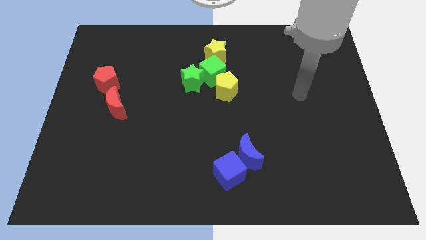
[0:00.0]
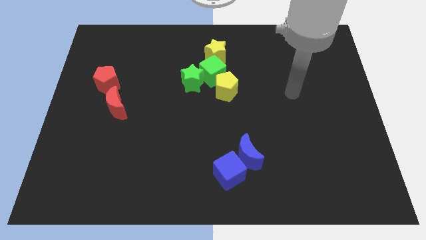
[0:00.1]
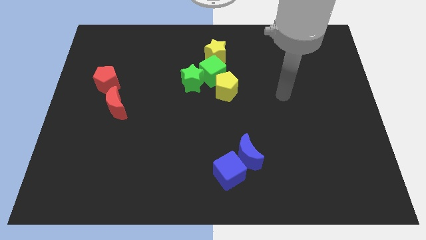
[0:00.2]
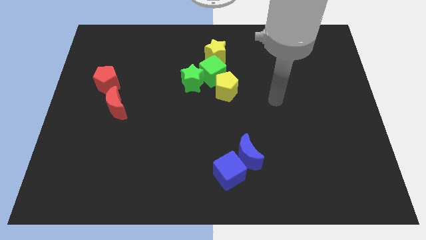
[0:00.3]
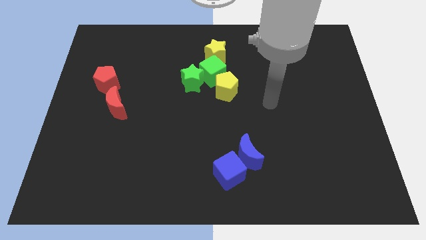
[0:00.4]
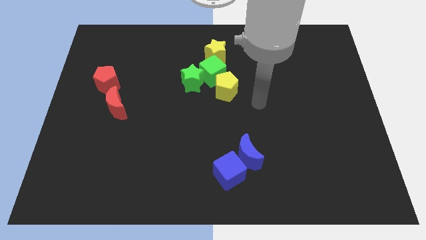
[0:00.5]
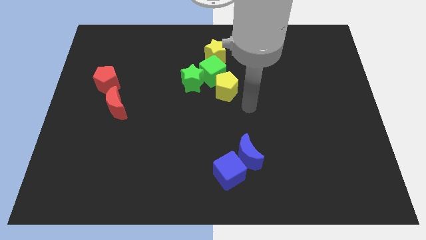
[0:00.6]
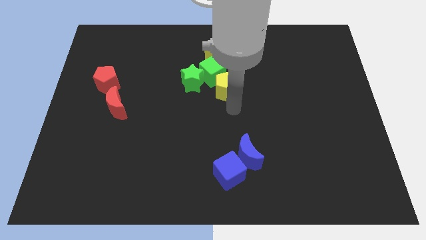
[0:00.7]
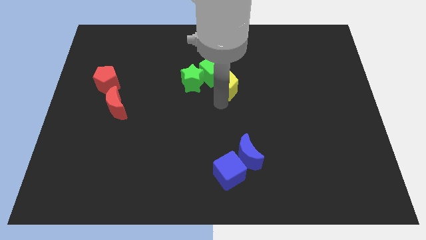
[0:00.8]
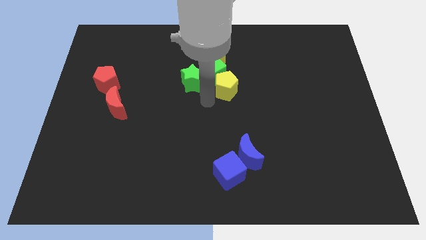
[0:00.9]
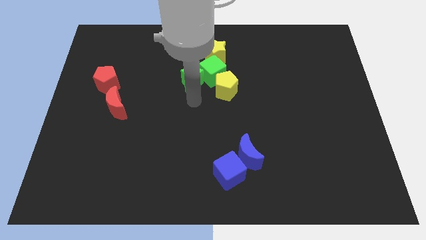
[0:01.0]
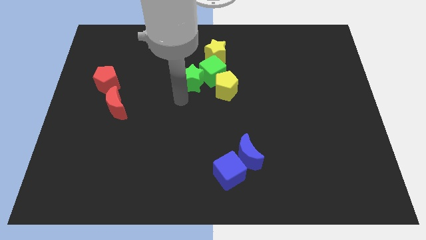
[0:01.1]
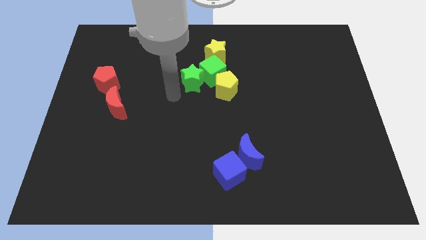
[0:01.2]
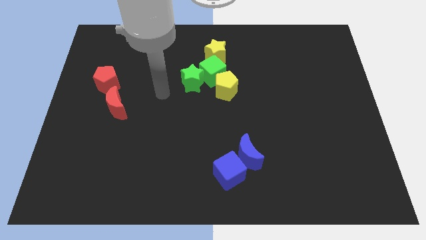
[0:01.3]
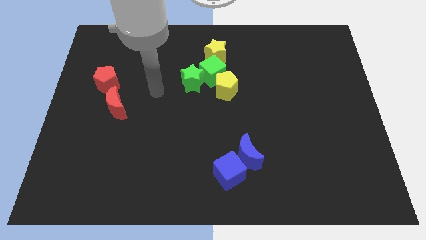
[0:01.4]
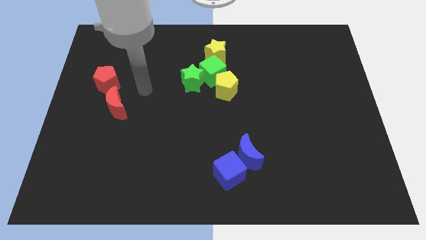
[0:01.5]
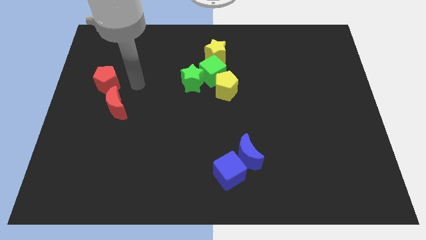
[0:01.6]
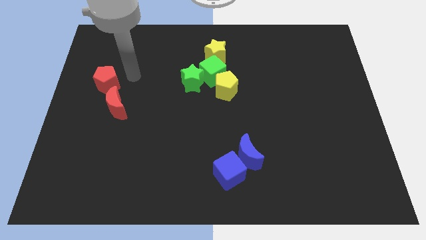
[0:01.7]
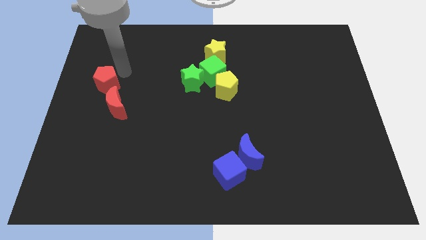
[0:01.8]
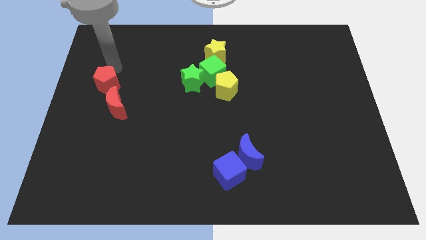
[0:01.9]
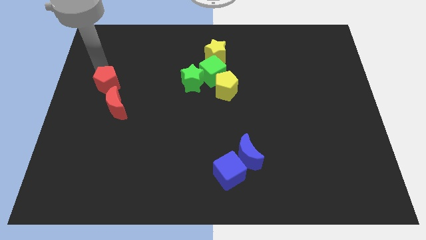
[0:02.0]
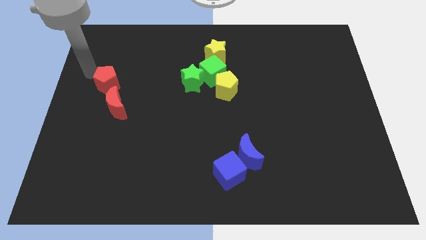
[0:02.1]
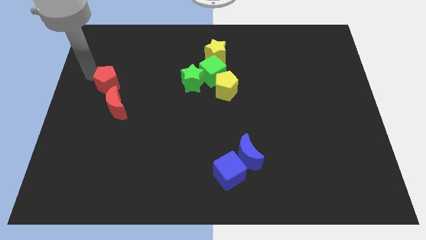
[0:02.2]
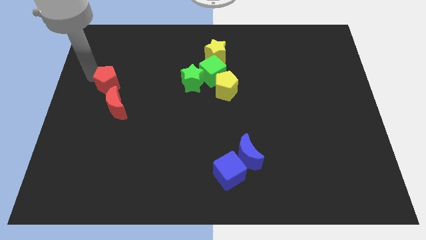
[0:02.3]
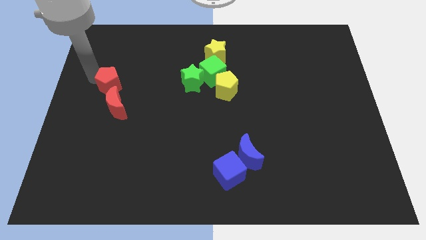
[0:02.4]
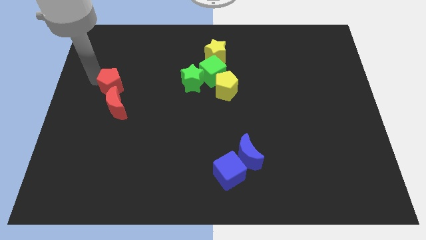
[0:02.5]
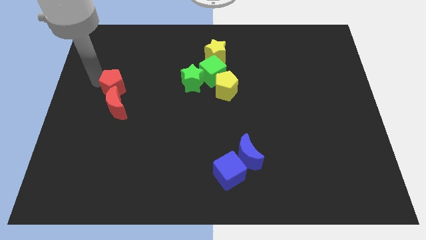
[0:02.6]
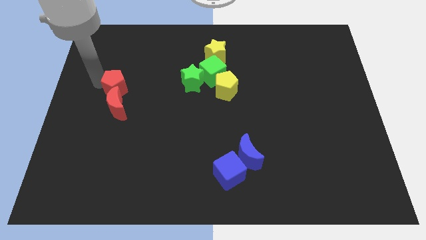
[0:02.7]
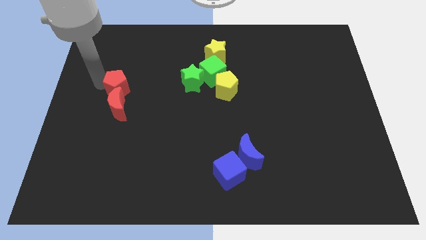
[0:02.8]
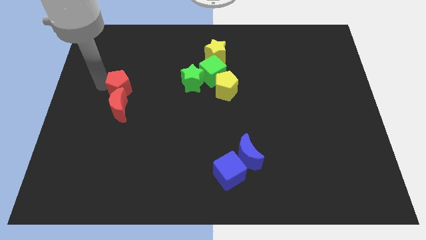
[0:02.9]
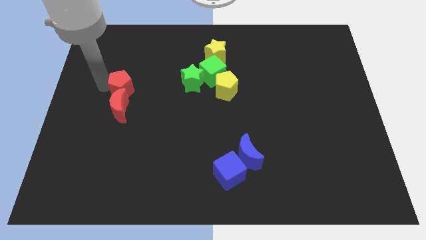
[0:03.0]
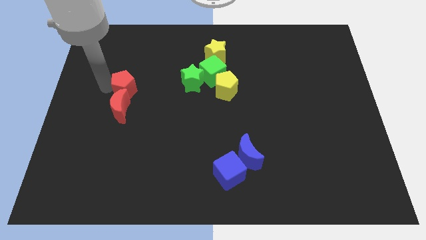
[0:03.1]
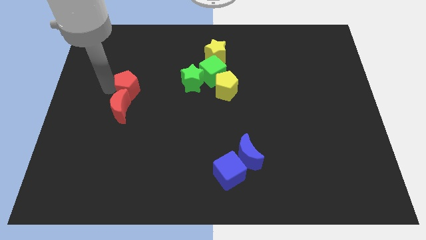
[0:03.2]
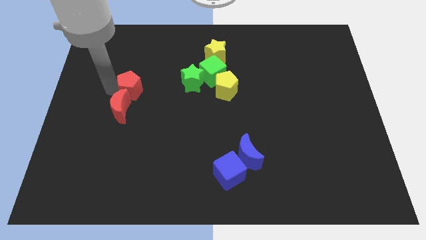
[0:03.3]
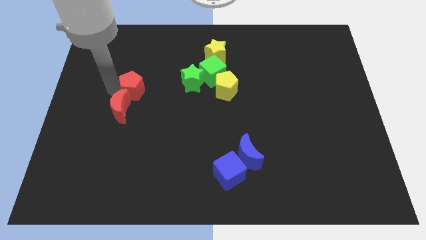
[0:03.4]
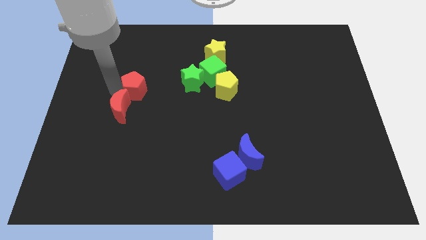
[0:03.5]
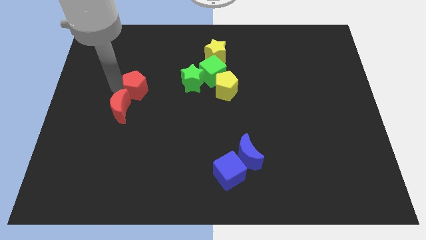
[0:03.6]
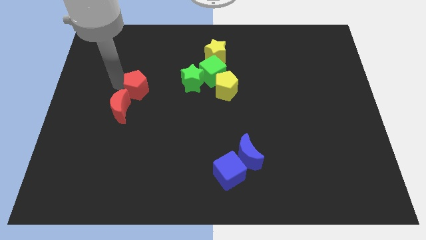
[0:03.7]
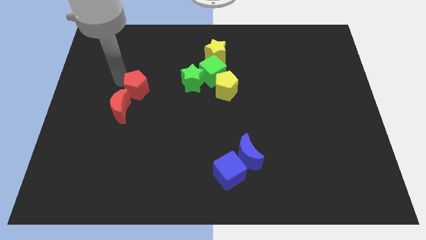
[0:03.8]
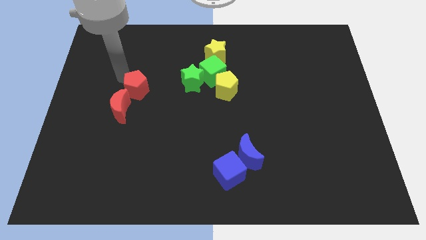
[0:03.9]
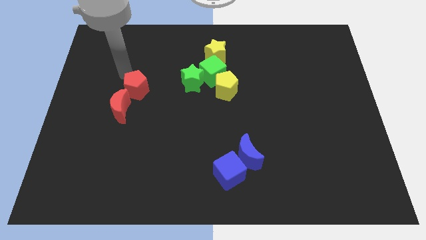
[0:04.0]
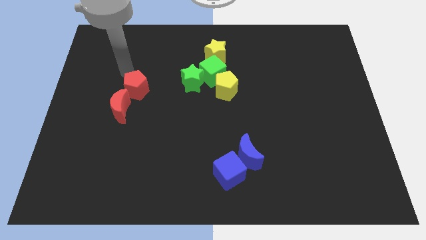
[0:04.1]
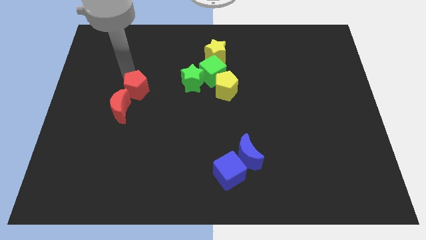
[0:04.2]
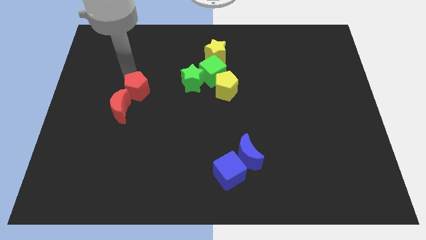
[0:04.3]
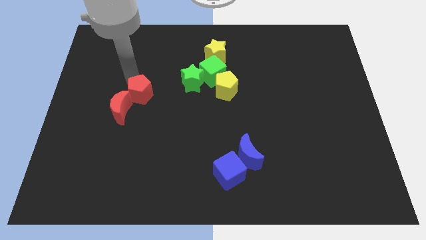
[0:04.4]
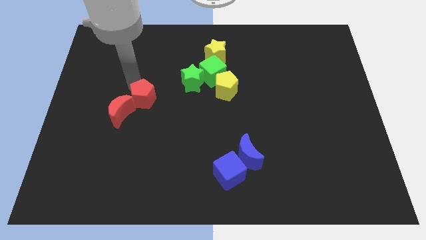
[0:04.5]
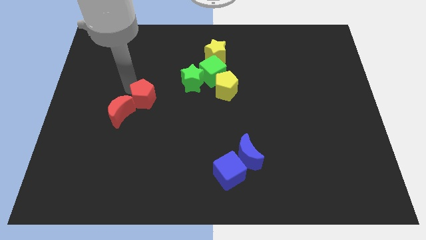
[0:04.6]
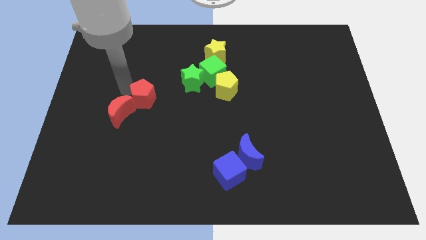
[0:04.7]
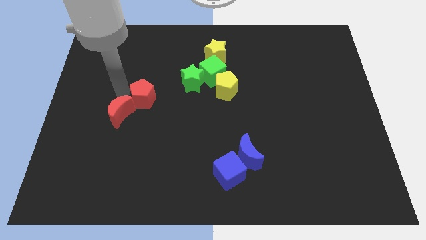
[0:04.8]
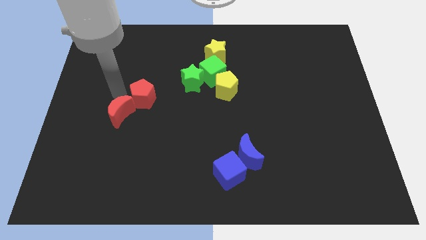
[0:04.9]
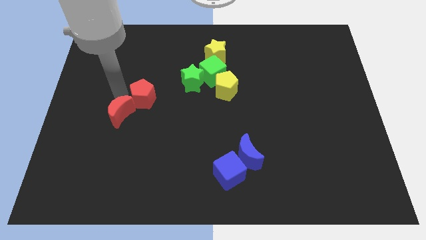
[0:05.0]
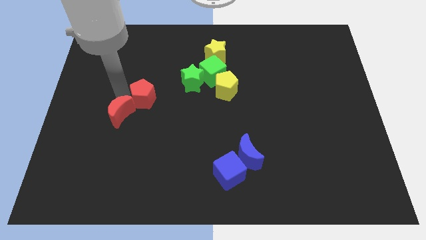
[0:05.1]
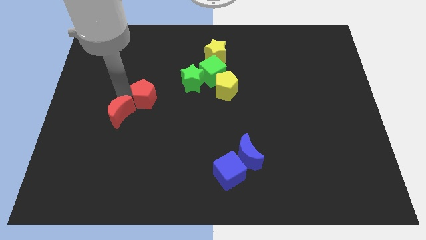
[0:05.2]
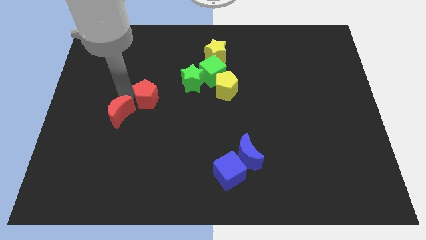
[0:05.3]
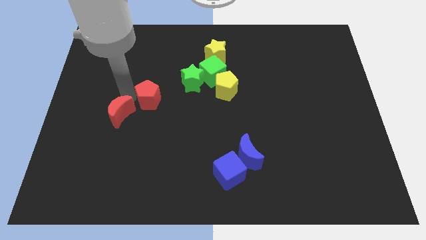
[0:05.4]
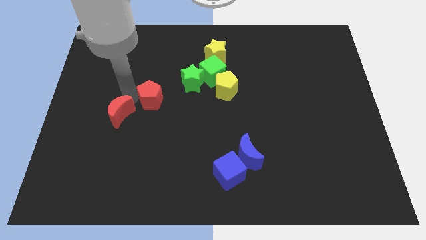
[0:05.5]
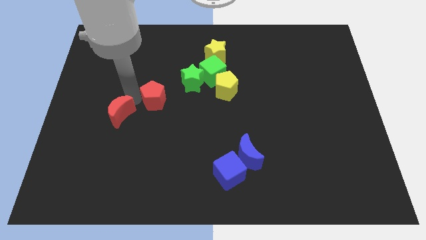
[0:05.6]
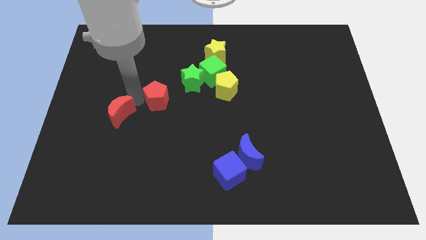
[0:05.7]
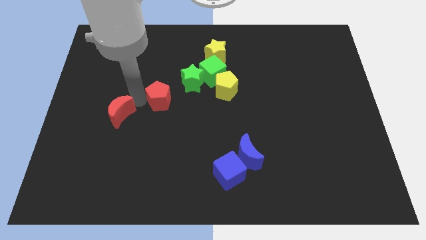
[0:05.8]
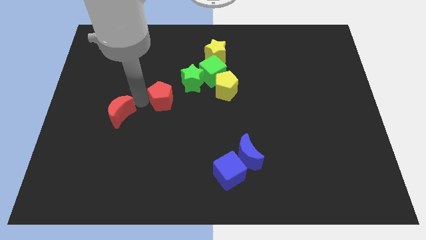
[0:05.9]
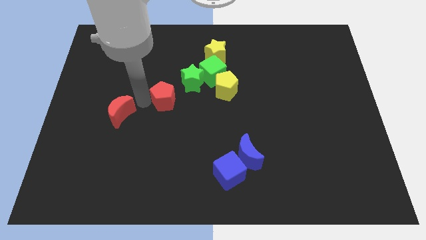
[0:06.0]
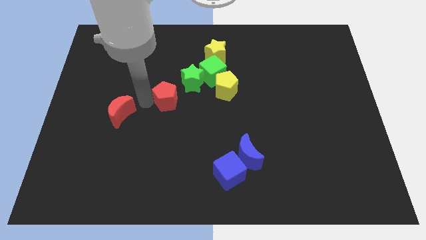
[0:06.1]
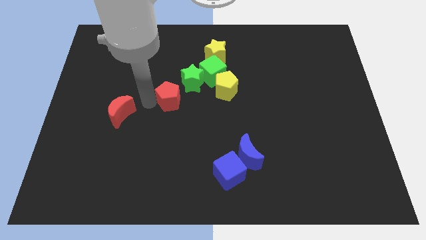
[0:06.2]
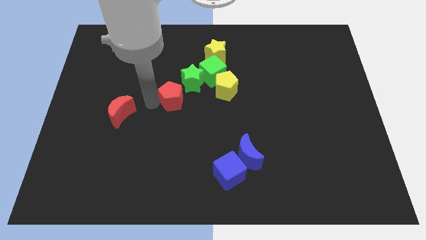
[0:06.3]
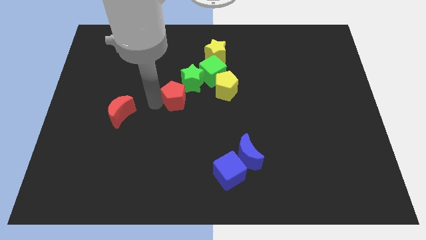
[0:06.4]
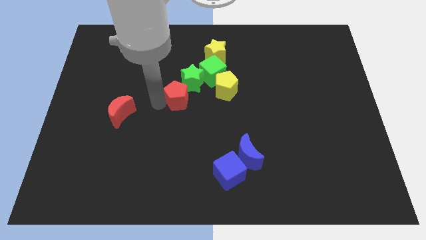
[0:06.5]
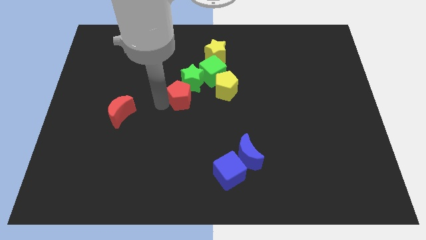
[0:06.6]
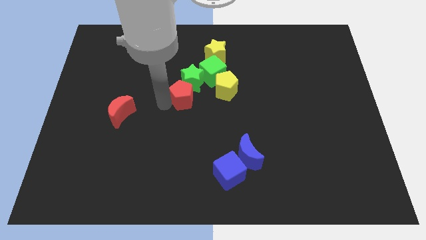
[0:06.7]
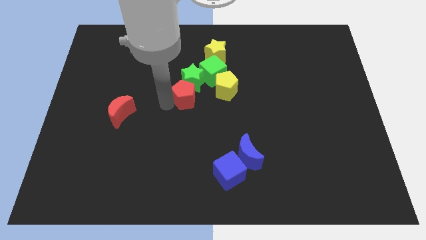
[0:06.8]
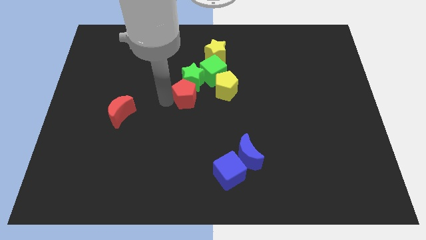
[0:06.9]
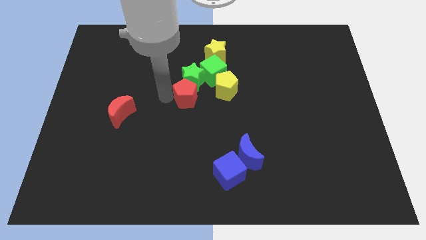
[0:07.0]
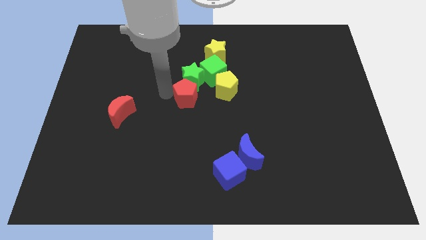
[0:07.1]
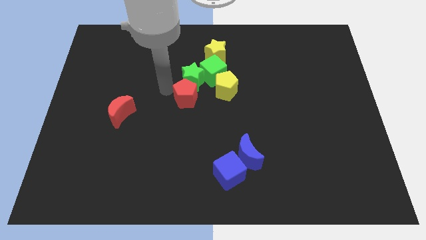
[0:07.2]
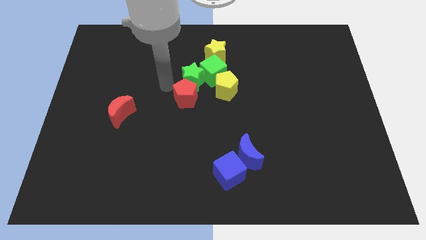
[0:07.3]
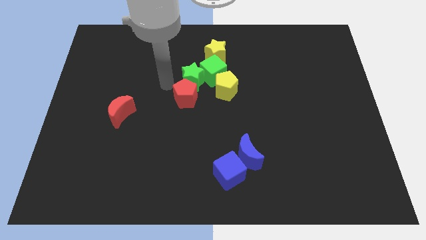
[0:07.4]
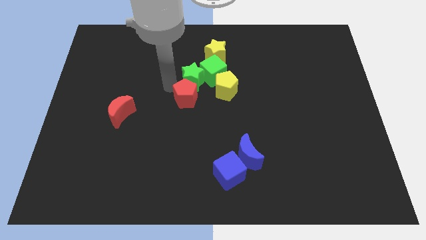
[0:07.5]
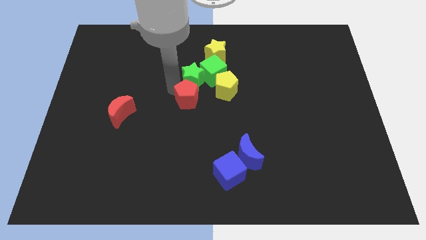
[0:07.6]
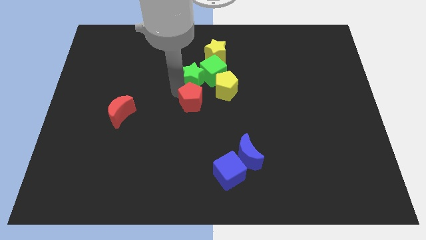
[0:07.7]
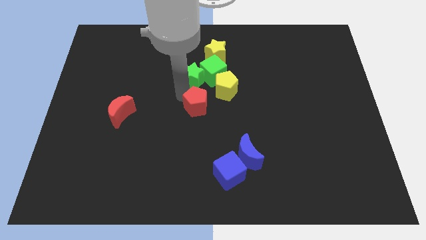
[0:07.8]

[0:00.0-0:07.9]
slide the red pentagon below the green cube
